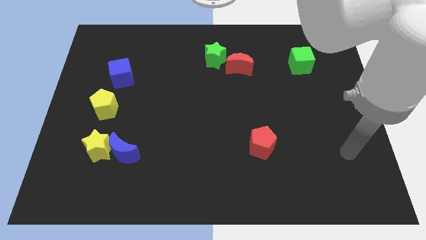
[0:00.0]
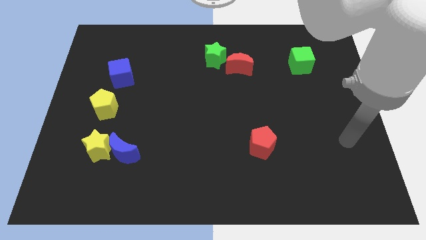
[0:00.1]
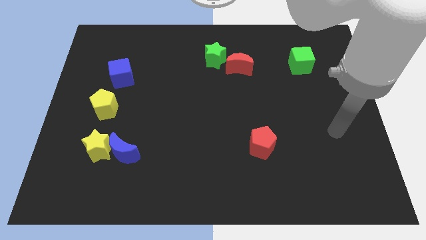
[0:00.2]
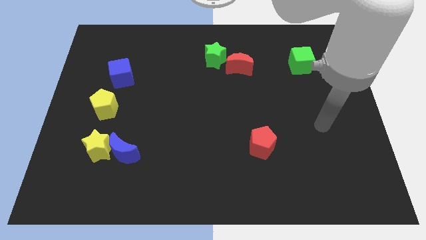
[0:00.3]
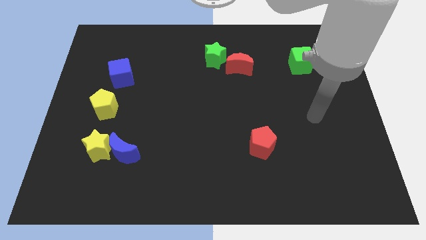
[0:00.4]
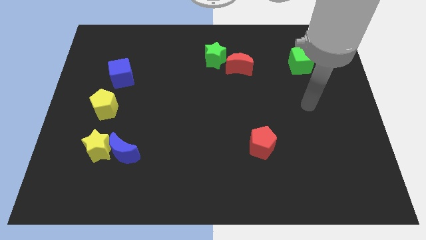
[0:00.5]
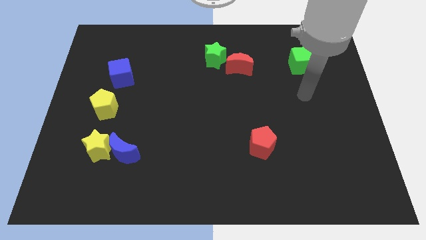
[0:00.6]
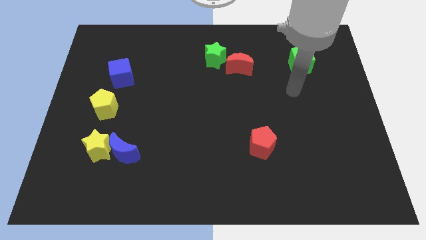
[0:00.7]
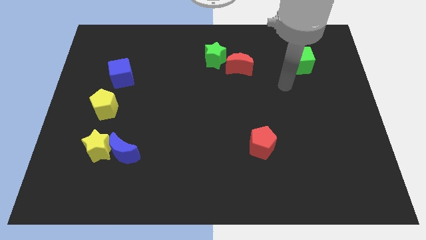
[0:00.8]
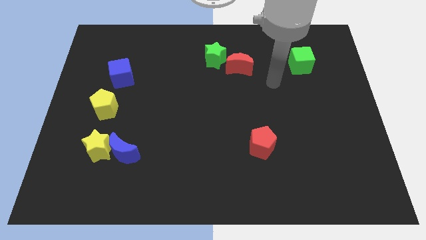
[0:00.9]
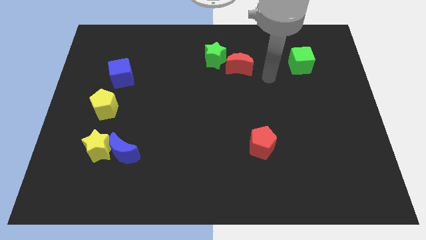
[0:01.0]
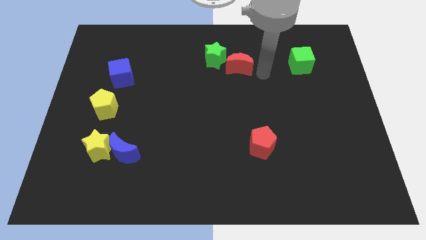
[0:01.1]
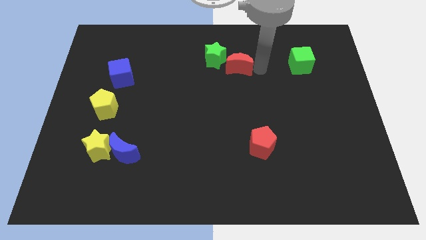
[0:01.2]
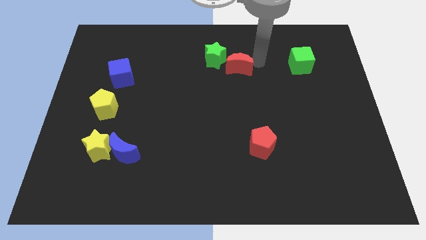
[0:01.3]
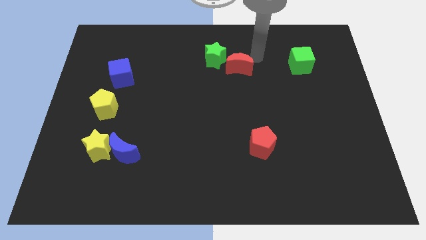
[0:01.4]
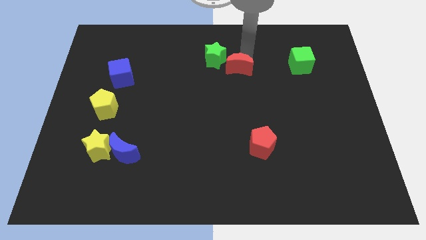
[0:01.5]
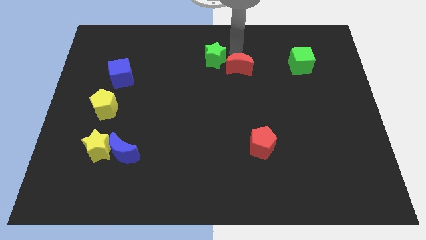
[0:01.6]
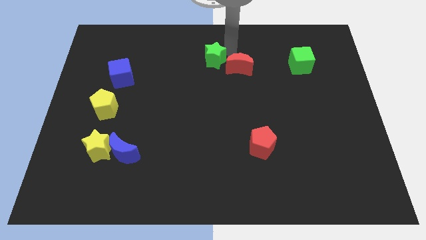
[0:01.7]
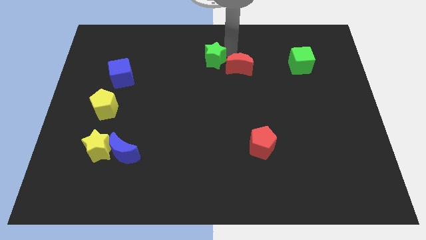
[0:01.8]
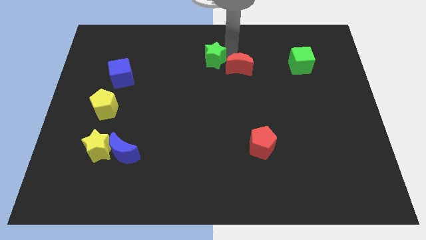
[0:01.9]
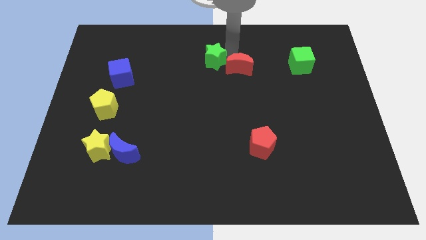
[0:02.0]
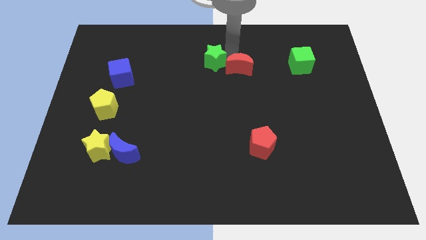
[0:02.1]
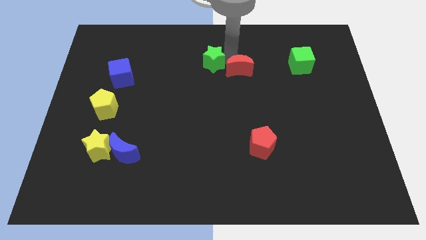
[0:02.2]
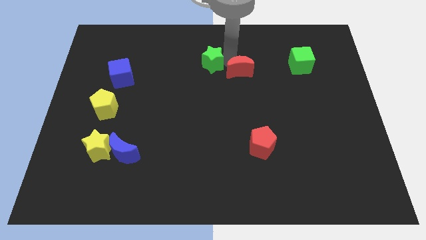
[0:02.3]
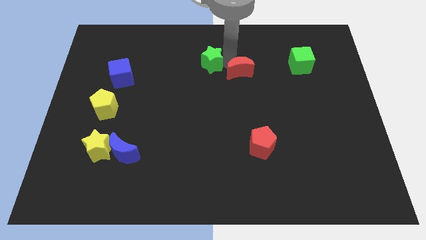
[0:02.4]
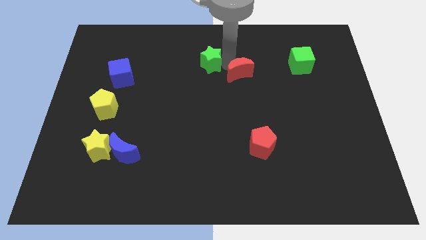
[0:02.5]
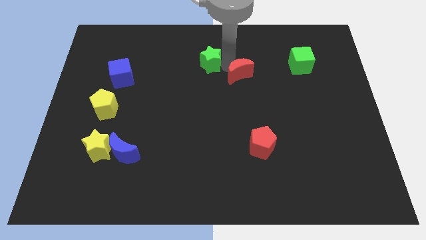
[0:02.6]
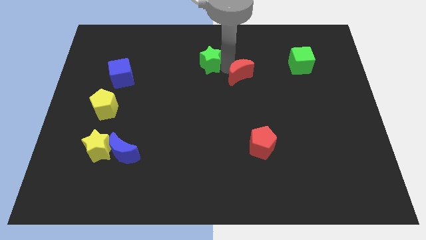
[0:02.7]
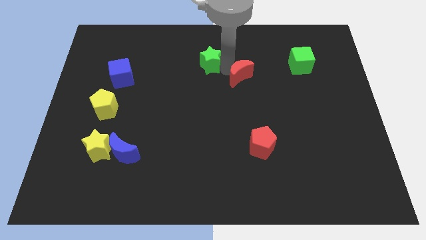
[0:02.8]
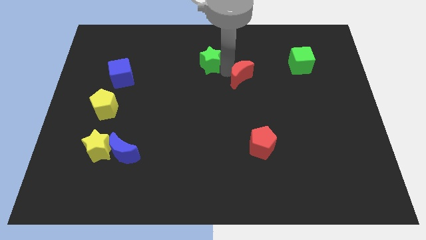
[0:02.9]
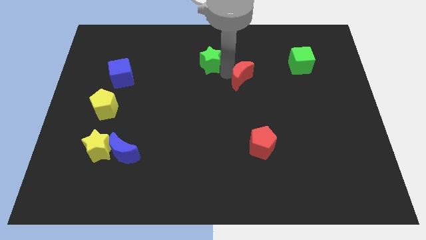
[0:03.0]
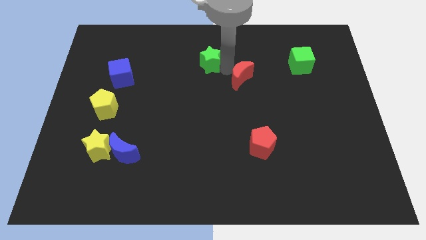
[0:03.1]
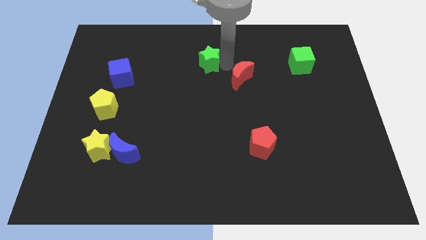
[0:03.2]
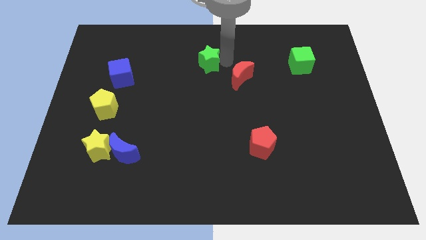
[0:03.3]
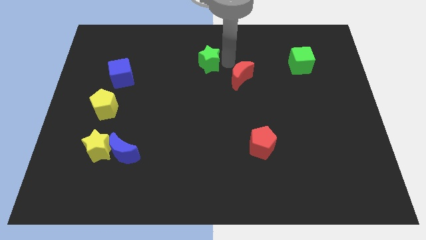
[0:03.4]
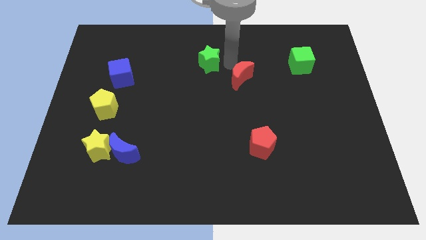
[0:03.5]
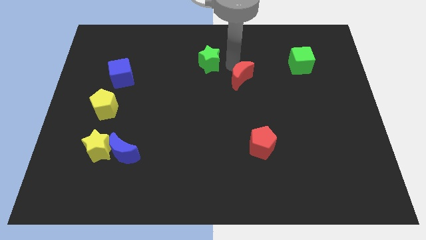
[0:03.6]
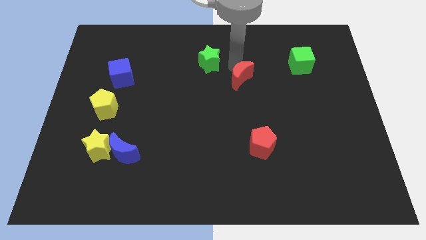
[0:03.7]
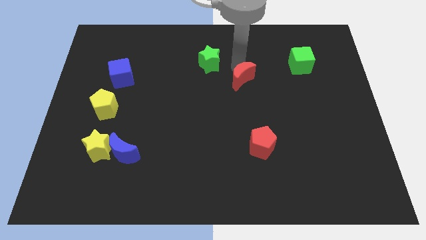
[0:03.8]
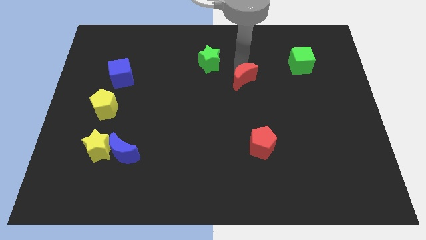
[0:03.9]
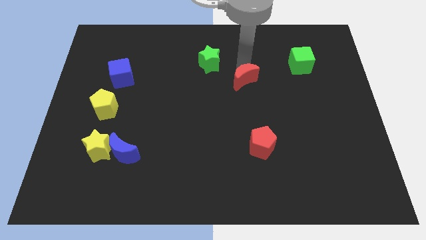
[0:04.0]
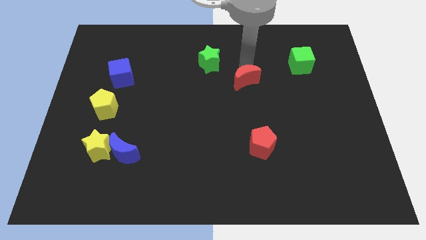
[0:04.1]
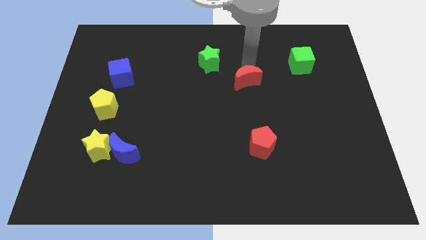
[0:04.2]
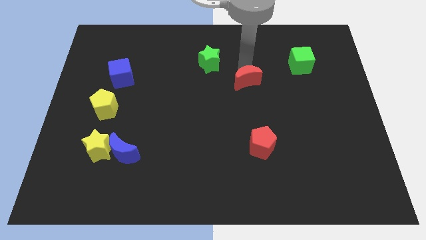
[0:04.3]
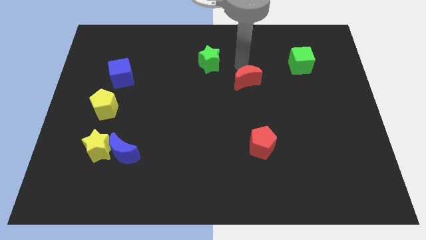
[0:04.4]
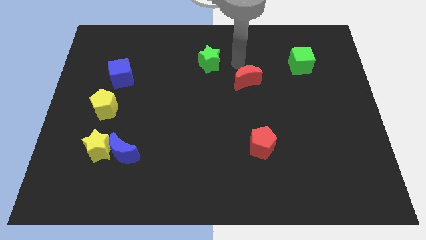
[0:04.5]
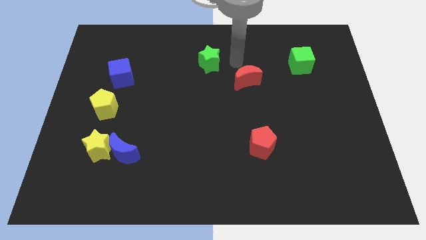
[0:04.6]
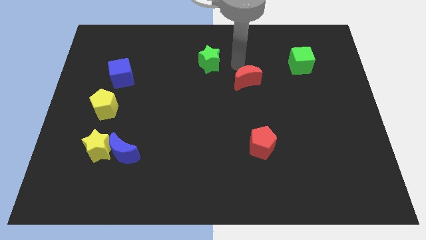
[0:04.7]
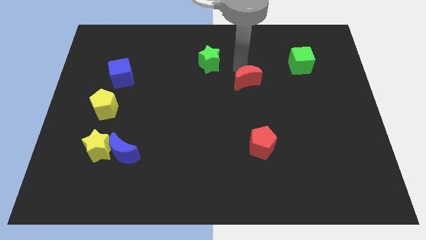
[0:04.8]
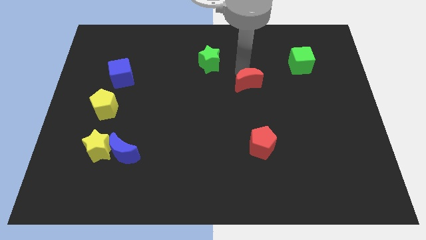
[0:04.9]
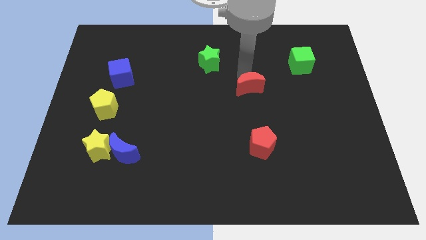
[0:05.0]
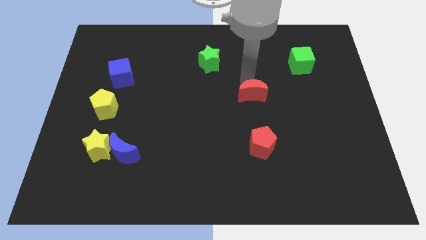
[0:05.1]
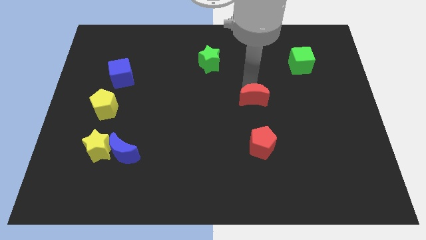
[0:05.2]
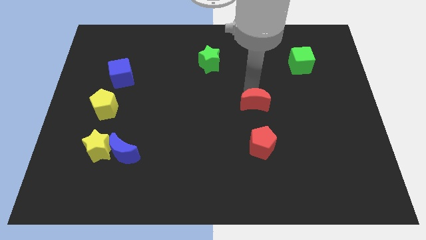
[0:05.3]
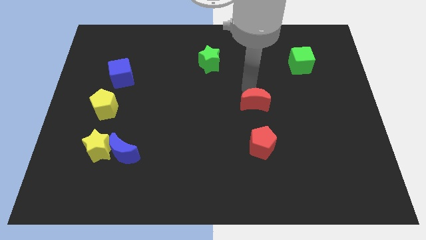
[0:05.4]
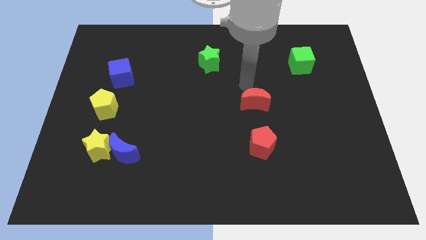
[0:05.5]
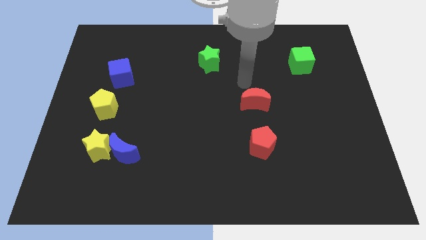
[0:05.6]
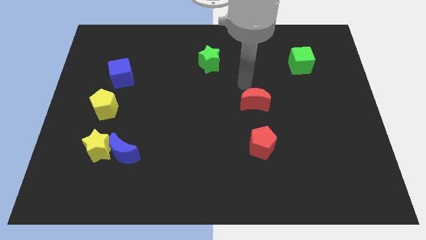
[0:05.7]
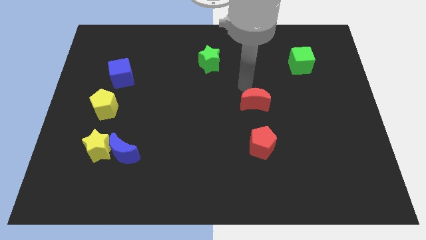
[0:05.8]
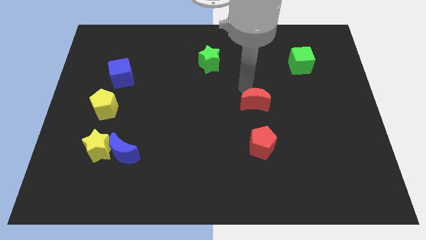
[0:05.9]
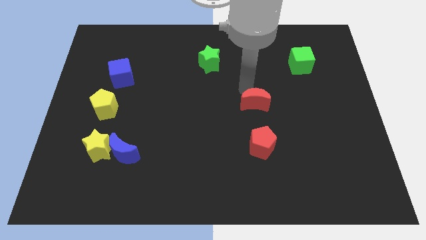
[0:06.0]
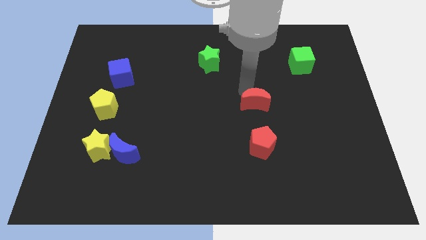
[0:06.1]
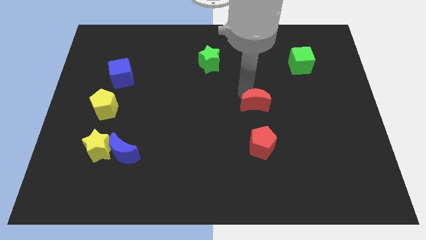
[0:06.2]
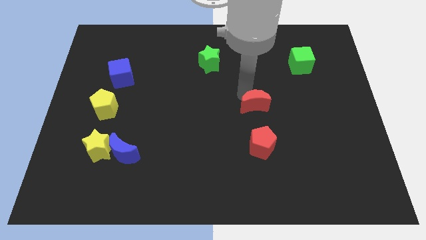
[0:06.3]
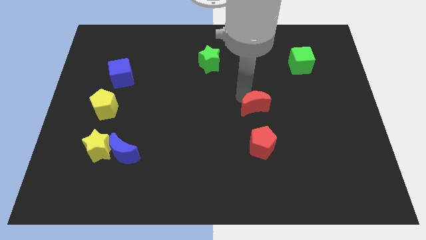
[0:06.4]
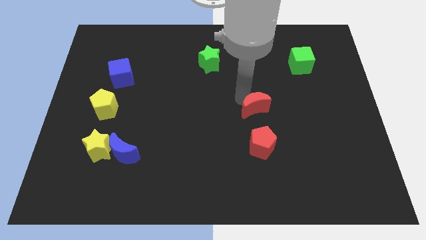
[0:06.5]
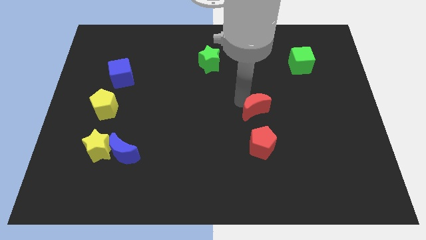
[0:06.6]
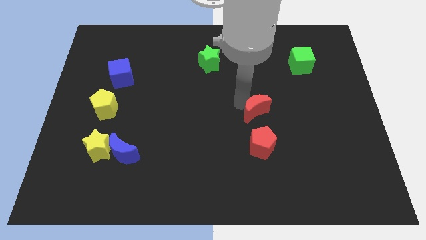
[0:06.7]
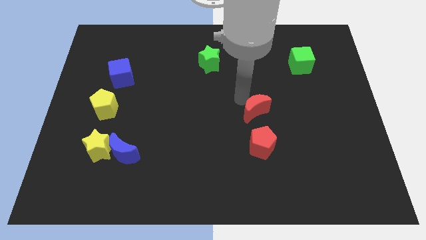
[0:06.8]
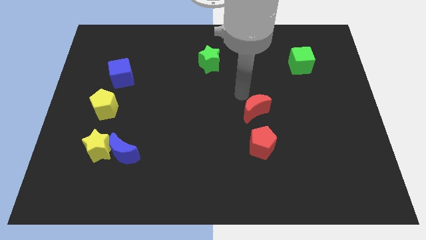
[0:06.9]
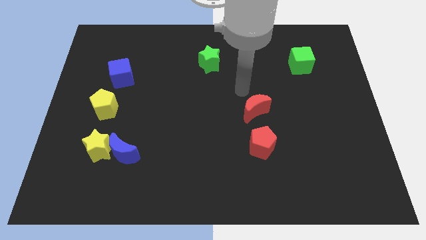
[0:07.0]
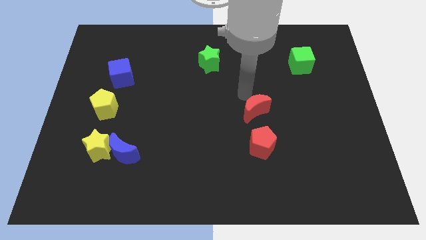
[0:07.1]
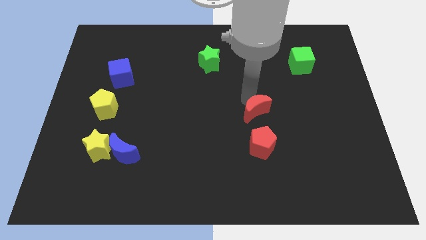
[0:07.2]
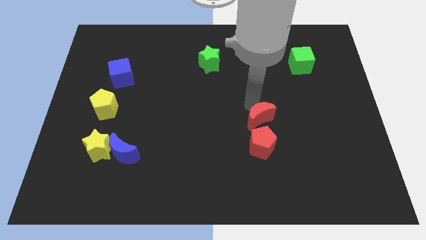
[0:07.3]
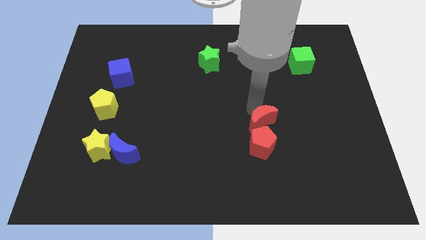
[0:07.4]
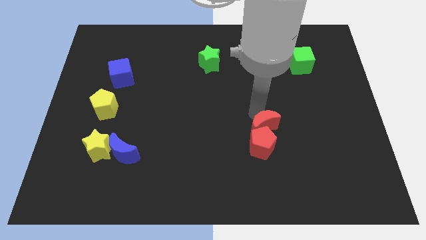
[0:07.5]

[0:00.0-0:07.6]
move the red moon to the red pentagon
